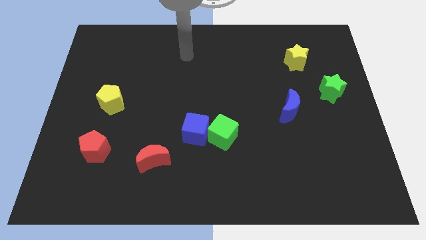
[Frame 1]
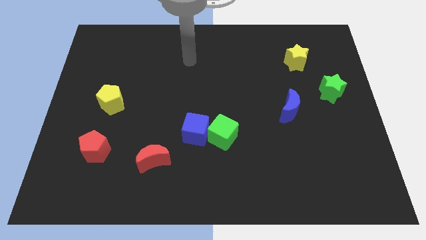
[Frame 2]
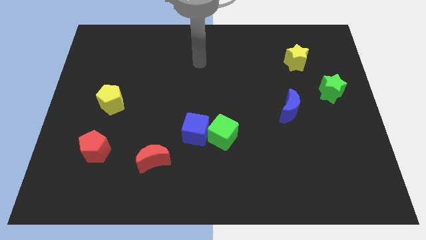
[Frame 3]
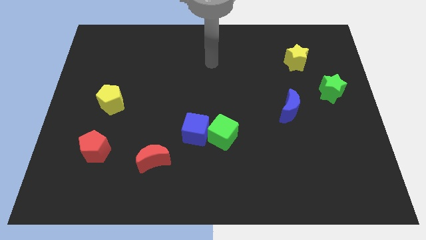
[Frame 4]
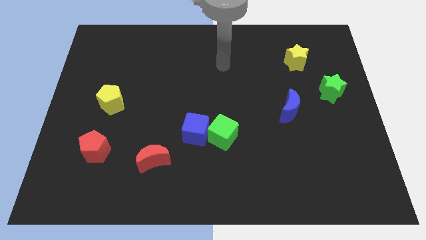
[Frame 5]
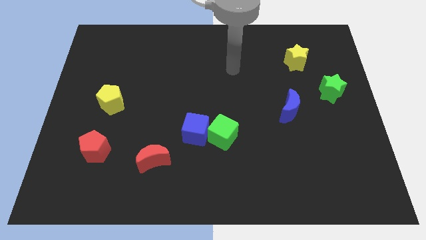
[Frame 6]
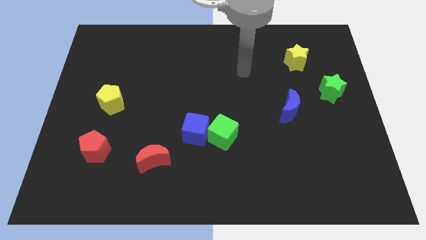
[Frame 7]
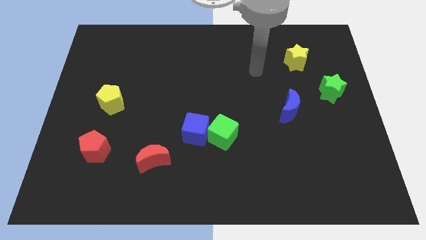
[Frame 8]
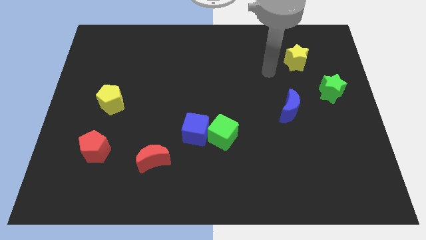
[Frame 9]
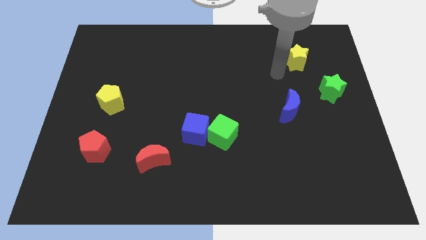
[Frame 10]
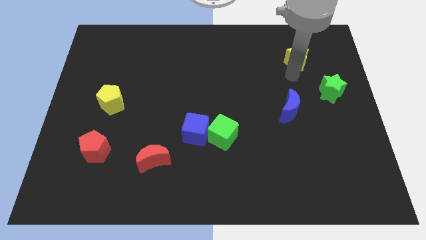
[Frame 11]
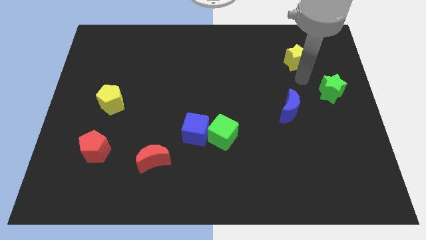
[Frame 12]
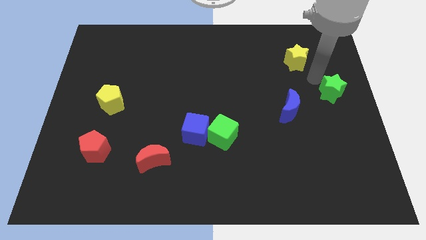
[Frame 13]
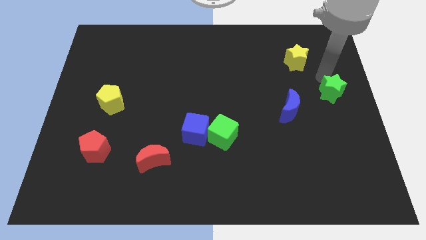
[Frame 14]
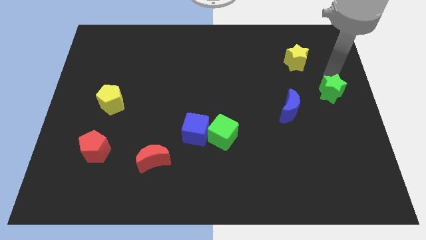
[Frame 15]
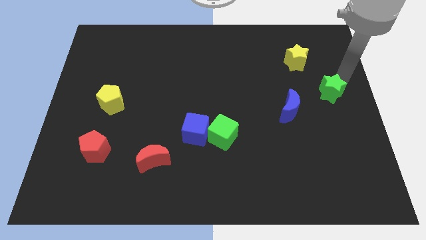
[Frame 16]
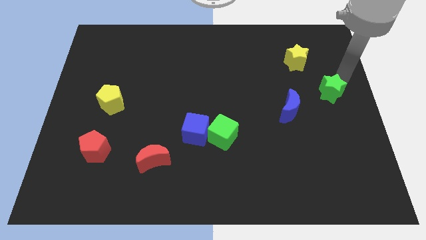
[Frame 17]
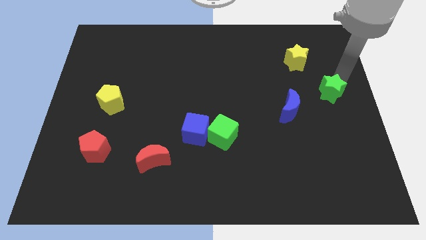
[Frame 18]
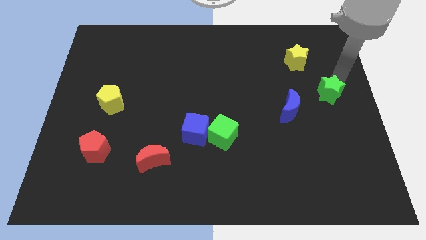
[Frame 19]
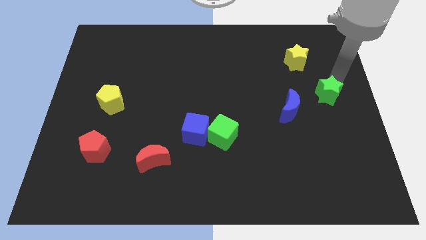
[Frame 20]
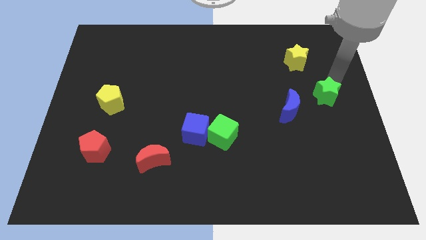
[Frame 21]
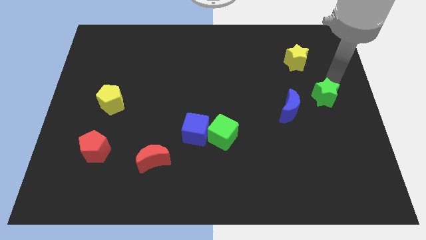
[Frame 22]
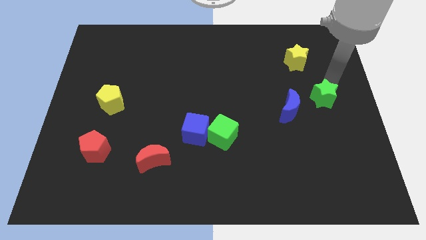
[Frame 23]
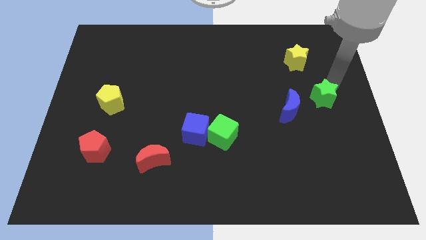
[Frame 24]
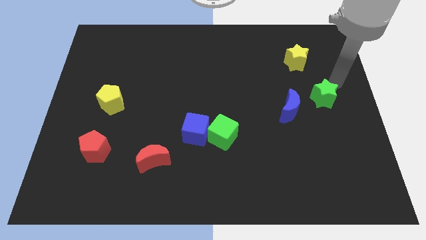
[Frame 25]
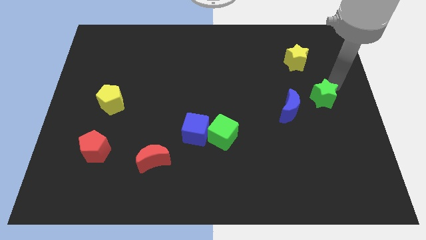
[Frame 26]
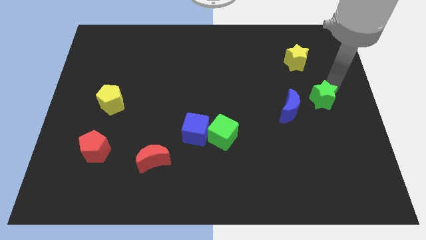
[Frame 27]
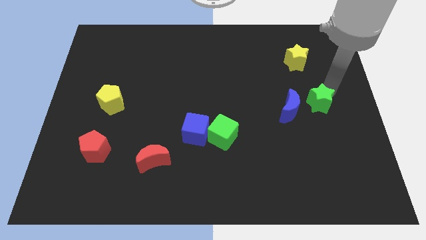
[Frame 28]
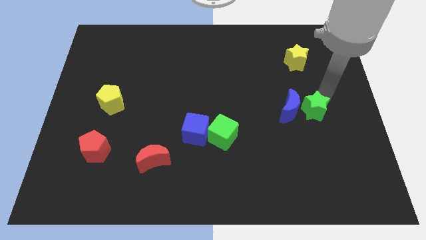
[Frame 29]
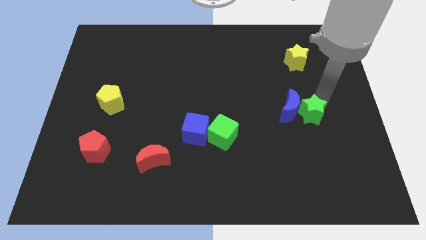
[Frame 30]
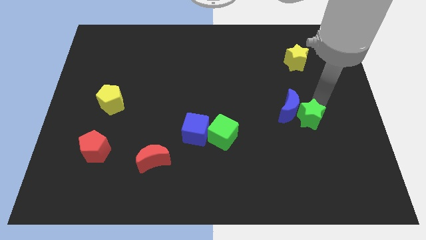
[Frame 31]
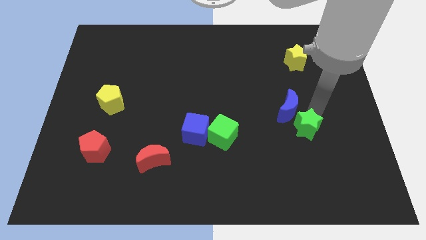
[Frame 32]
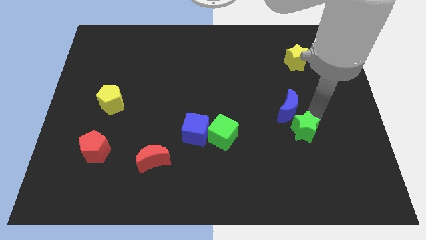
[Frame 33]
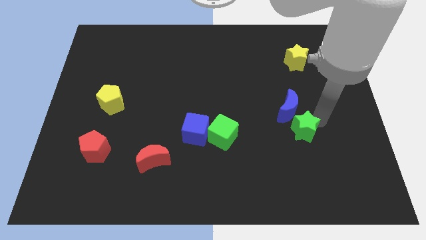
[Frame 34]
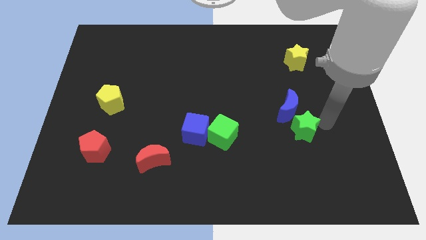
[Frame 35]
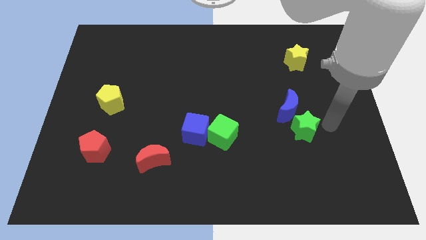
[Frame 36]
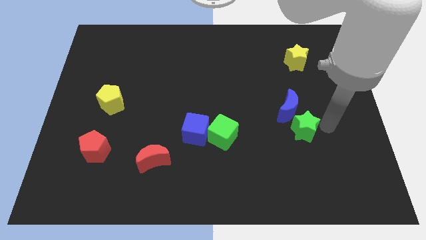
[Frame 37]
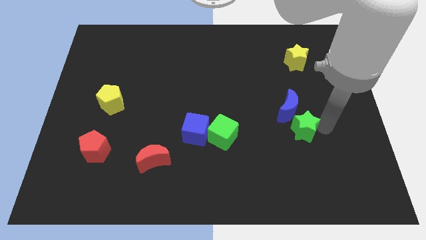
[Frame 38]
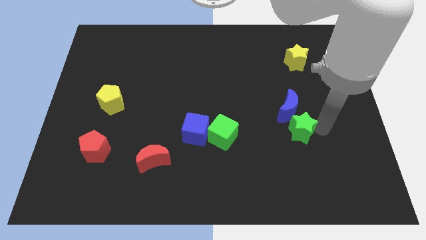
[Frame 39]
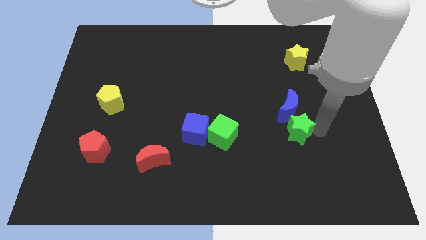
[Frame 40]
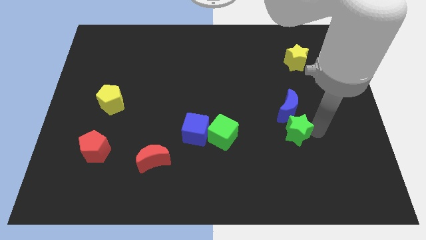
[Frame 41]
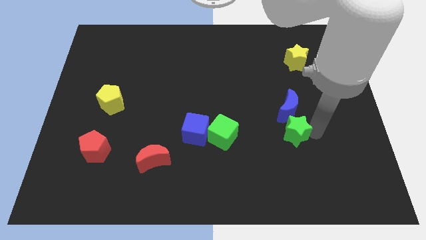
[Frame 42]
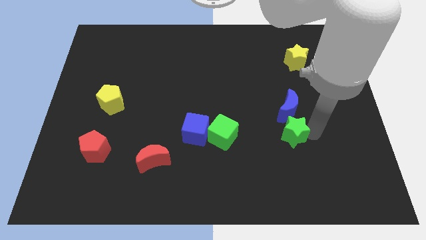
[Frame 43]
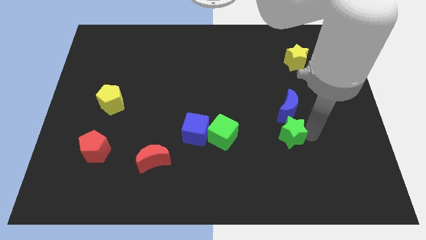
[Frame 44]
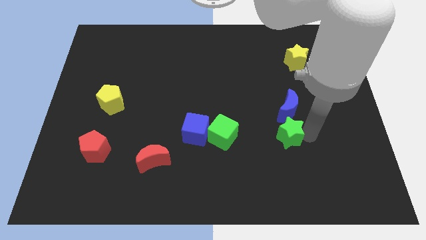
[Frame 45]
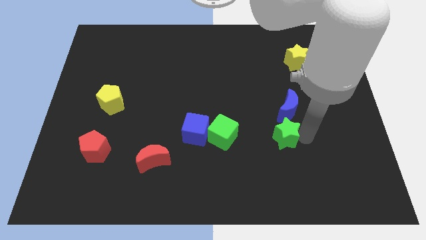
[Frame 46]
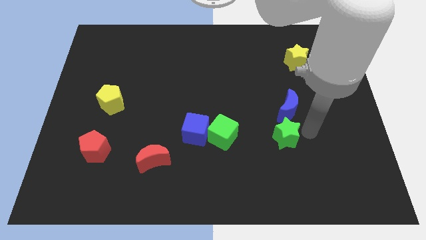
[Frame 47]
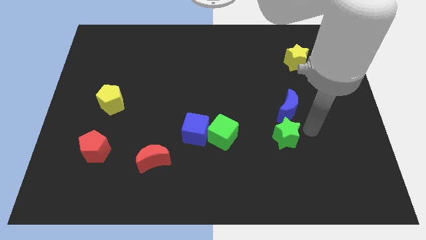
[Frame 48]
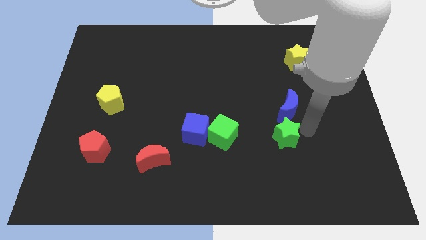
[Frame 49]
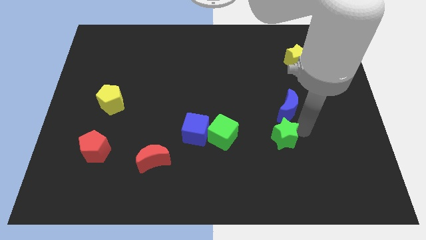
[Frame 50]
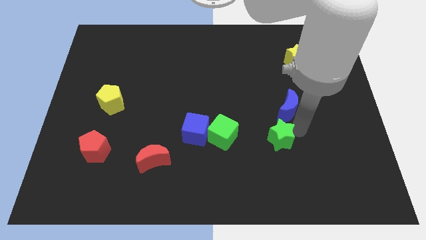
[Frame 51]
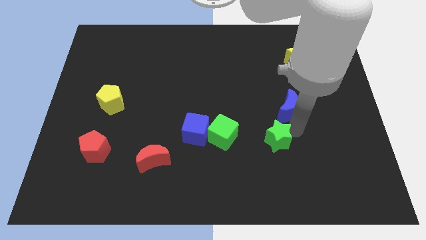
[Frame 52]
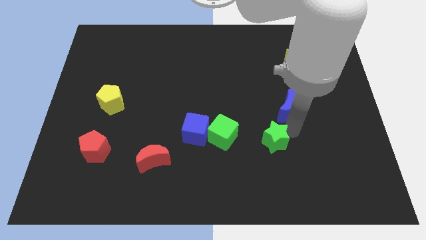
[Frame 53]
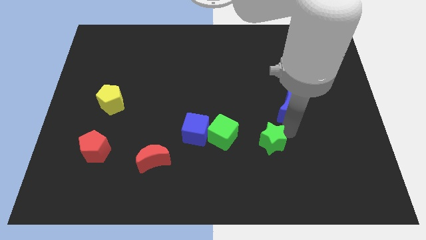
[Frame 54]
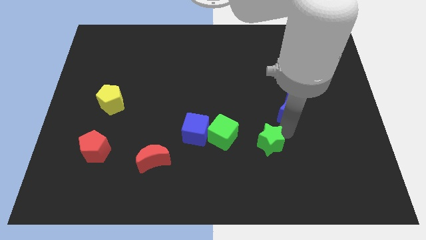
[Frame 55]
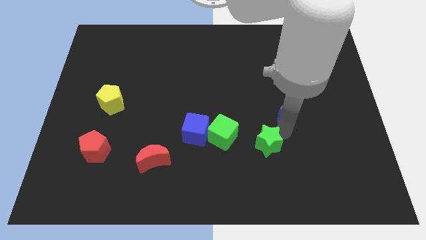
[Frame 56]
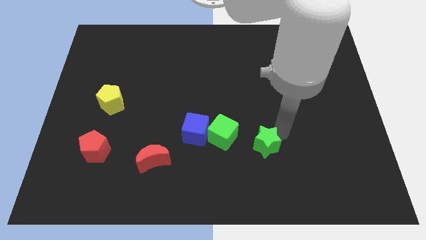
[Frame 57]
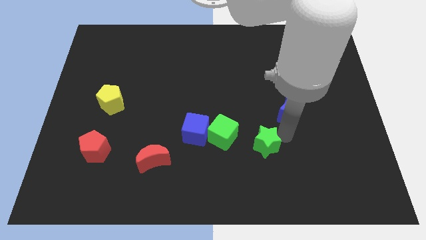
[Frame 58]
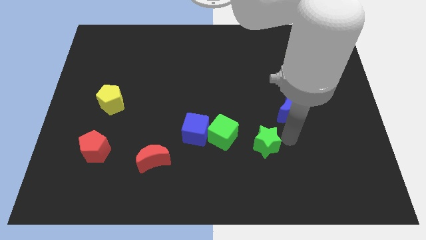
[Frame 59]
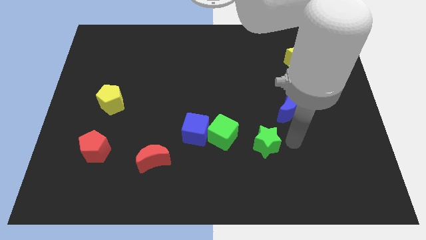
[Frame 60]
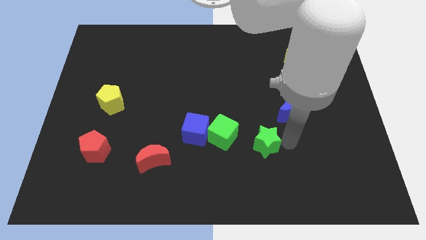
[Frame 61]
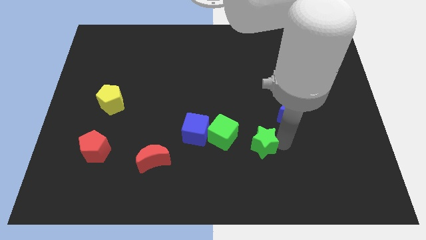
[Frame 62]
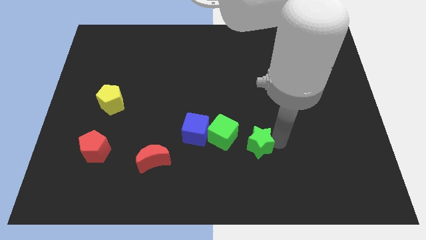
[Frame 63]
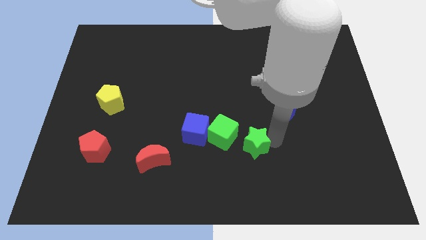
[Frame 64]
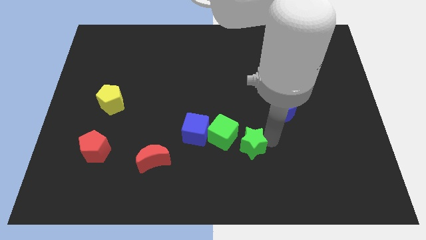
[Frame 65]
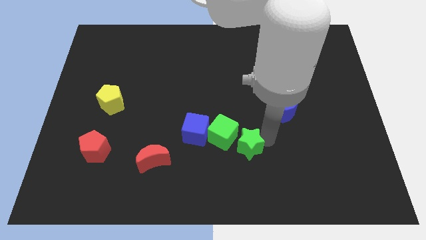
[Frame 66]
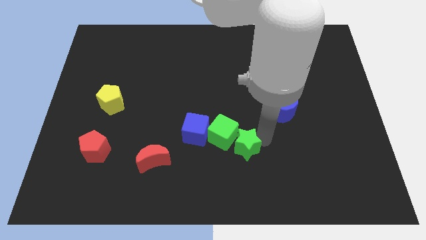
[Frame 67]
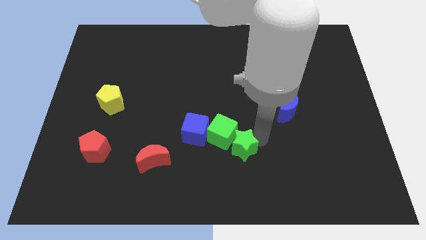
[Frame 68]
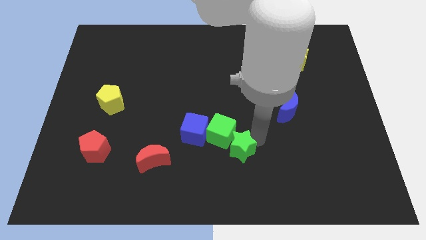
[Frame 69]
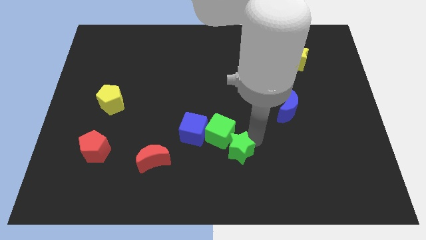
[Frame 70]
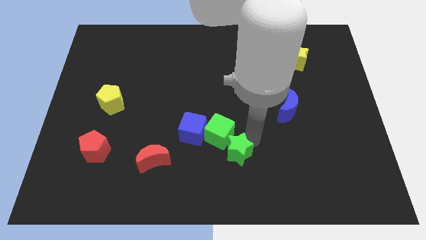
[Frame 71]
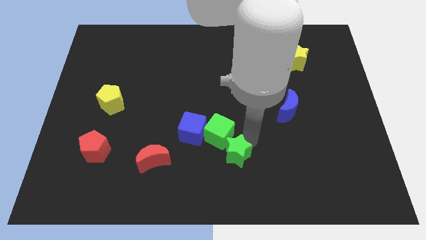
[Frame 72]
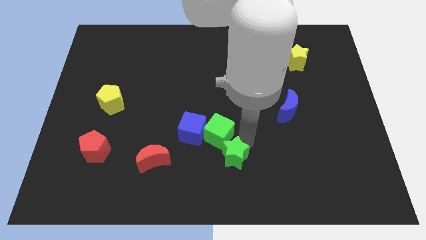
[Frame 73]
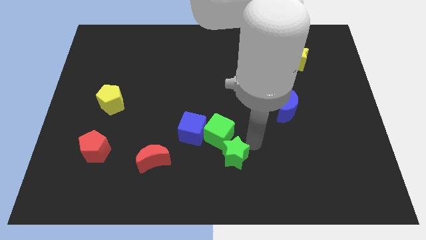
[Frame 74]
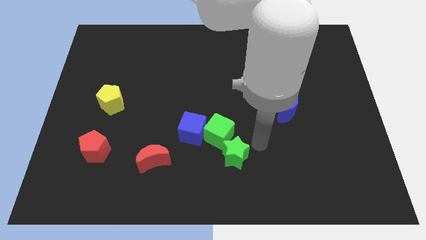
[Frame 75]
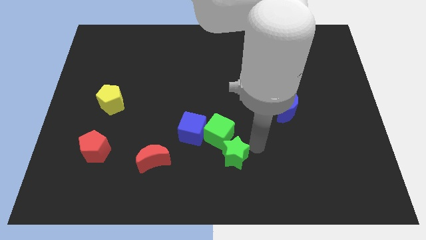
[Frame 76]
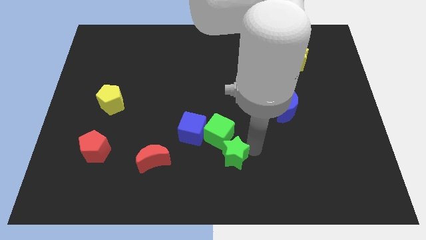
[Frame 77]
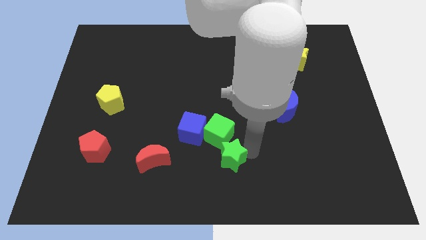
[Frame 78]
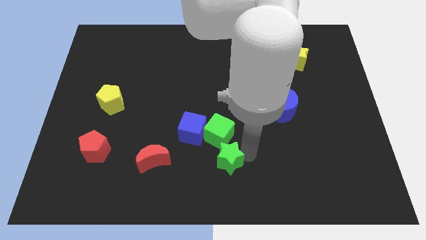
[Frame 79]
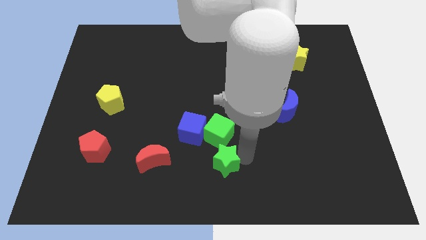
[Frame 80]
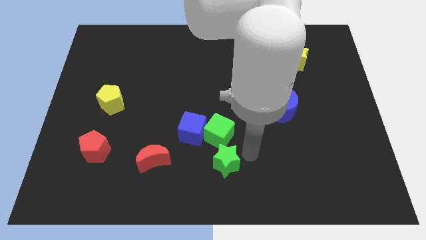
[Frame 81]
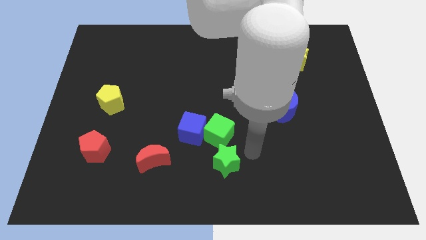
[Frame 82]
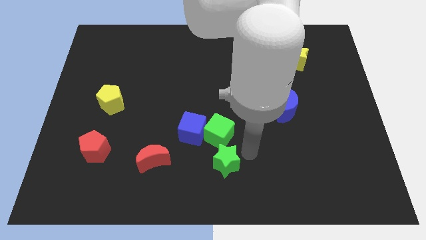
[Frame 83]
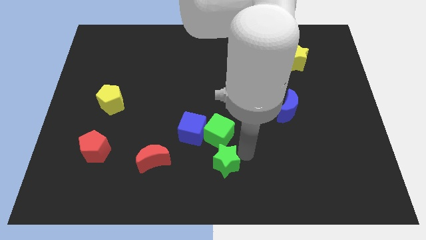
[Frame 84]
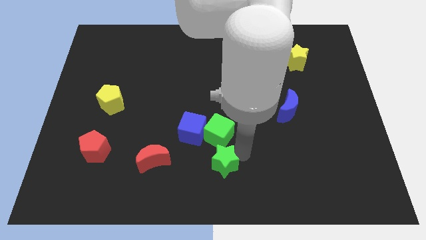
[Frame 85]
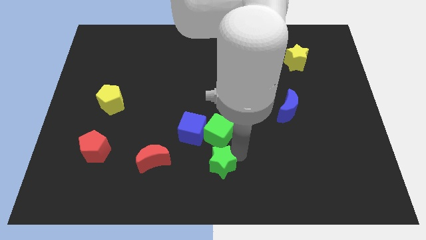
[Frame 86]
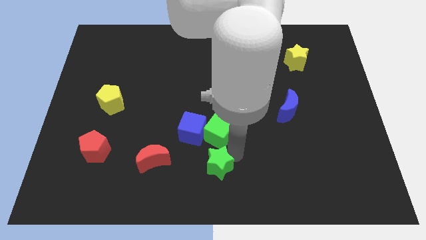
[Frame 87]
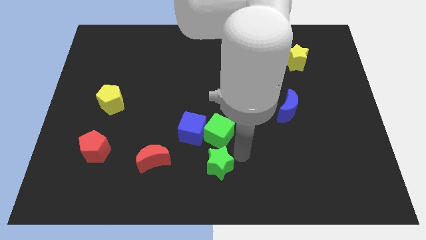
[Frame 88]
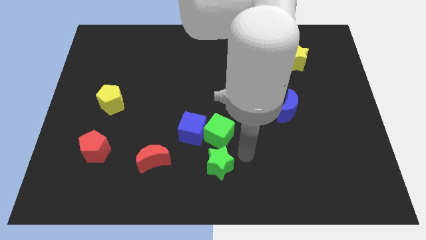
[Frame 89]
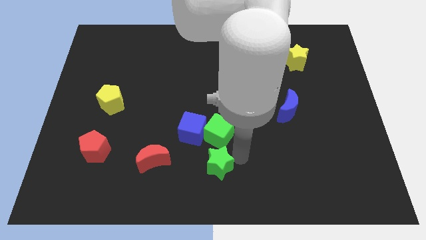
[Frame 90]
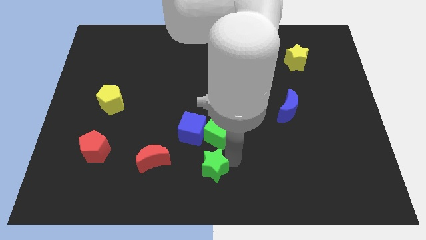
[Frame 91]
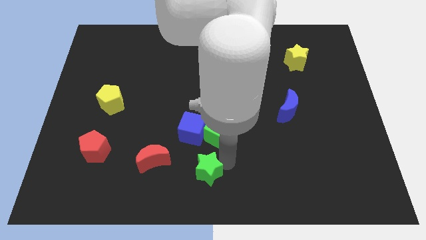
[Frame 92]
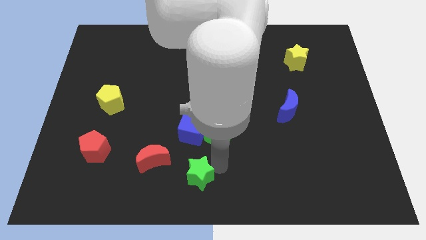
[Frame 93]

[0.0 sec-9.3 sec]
move the green star diagonally down and to the right of the red moon
